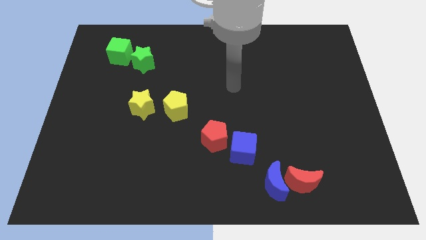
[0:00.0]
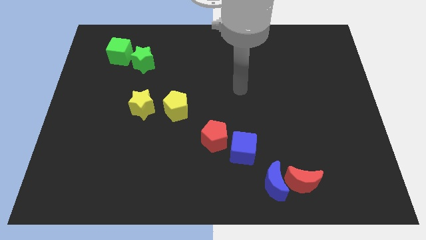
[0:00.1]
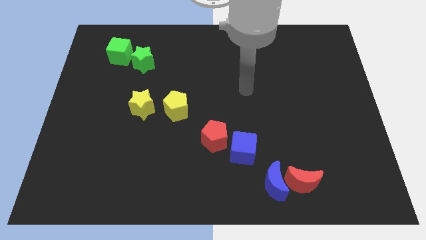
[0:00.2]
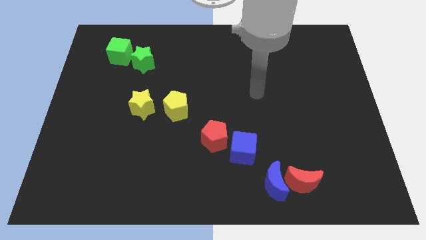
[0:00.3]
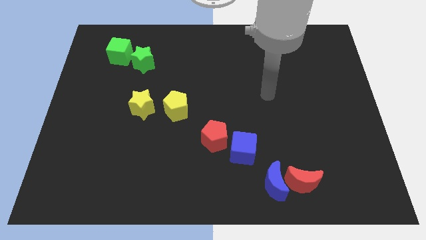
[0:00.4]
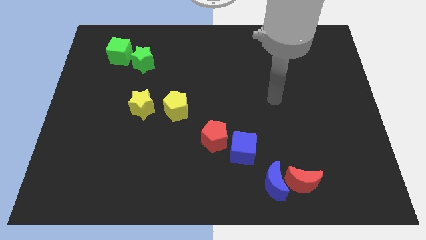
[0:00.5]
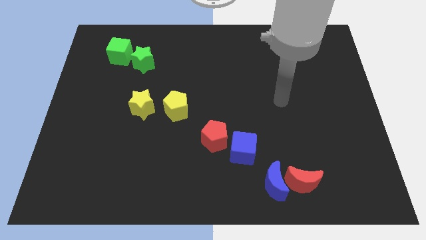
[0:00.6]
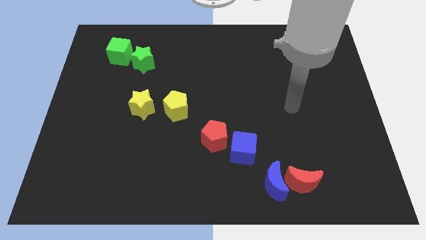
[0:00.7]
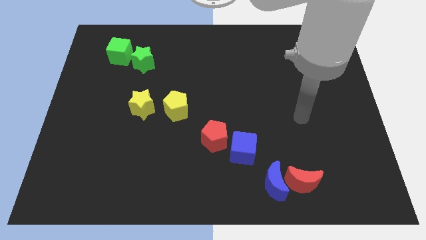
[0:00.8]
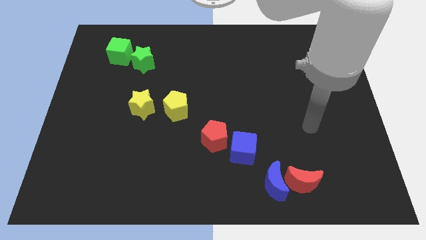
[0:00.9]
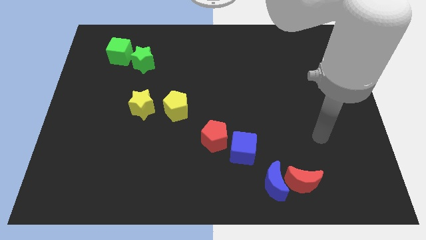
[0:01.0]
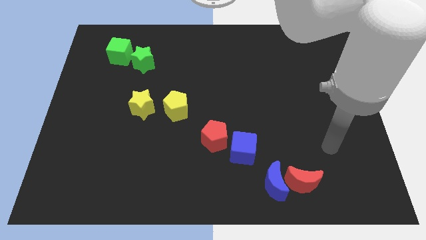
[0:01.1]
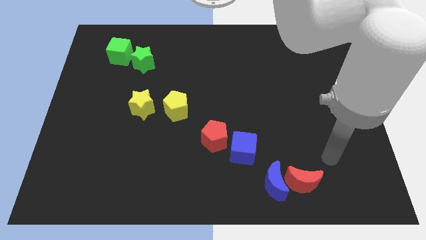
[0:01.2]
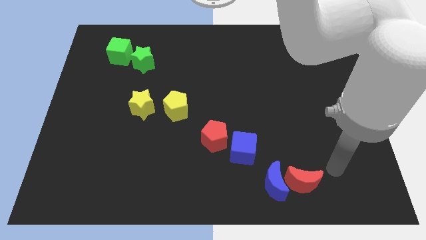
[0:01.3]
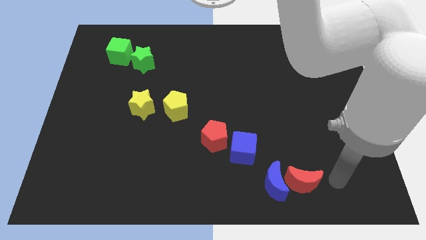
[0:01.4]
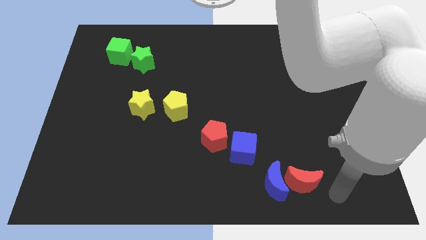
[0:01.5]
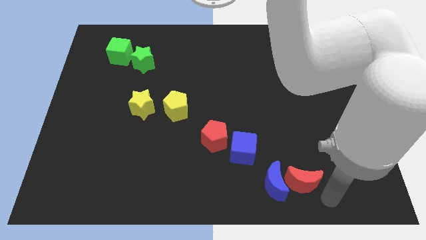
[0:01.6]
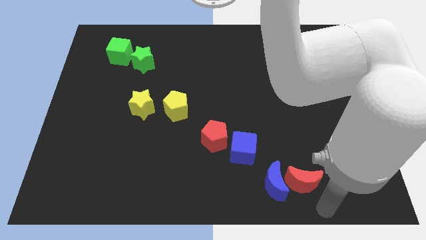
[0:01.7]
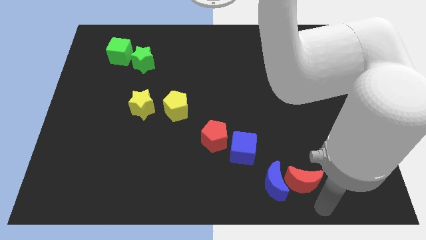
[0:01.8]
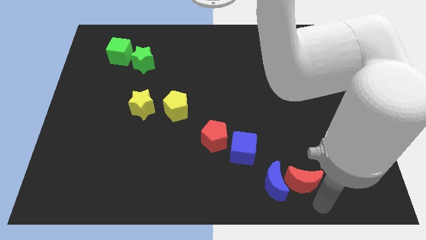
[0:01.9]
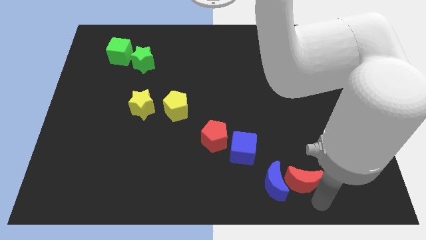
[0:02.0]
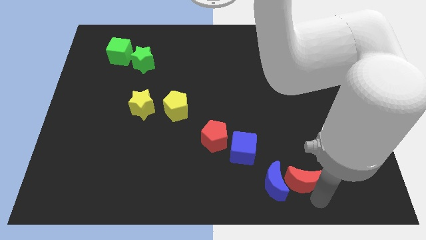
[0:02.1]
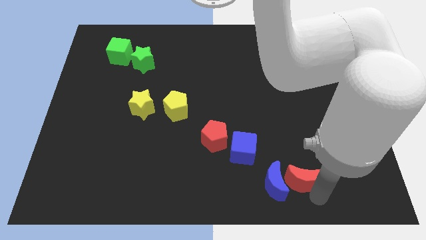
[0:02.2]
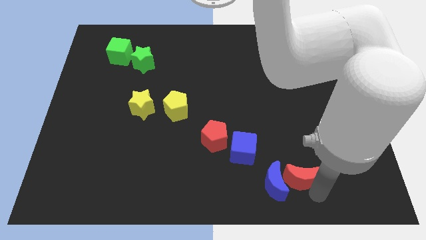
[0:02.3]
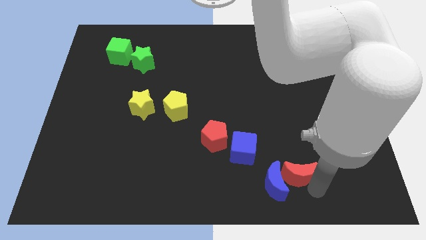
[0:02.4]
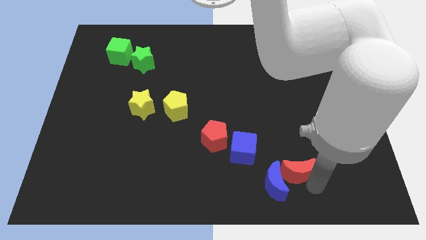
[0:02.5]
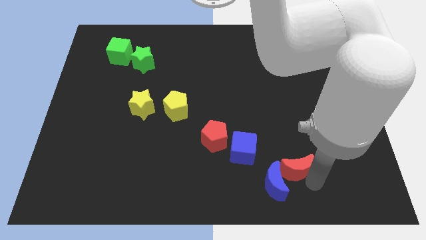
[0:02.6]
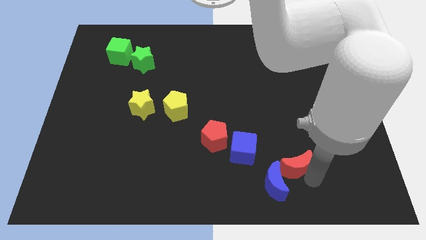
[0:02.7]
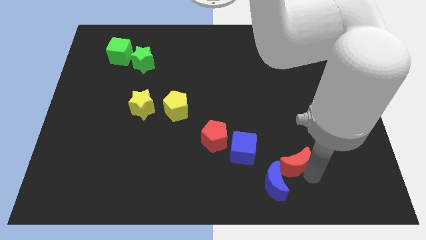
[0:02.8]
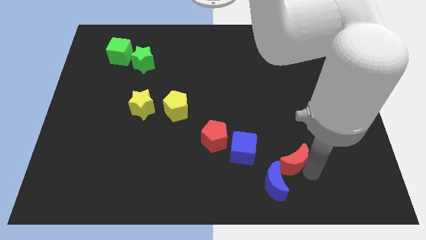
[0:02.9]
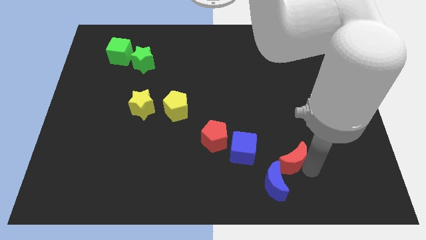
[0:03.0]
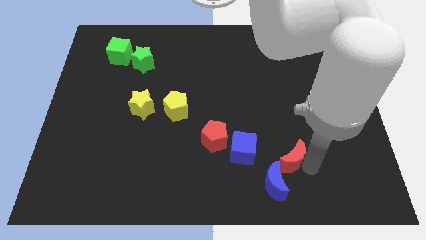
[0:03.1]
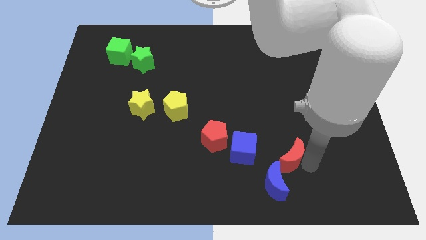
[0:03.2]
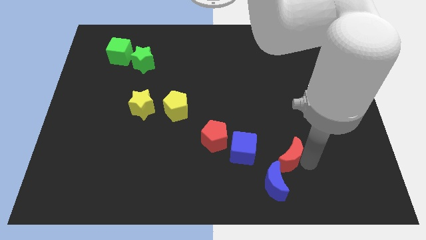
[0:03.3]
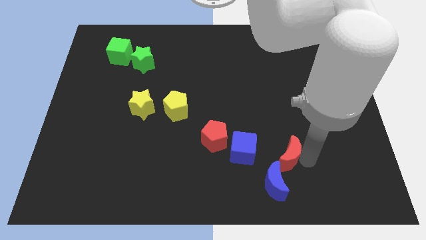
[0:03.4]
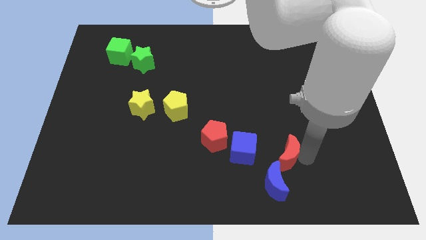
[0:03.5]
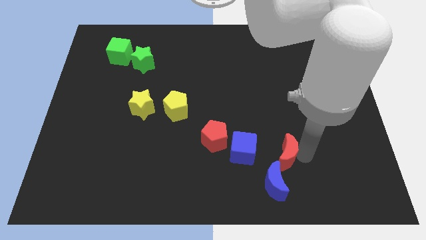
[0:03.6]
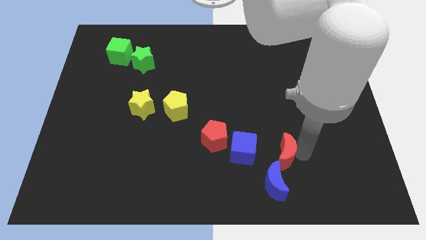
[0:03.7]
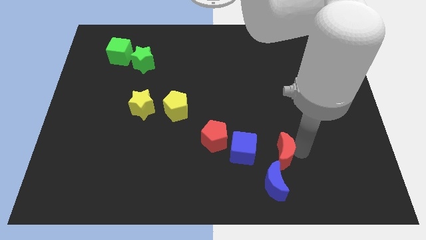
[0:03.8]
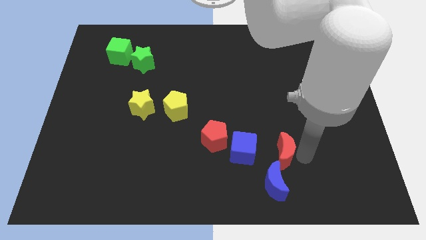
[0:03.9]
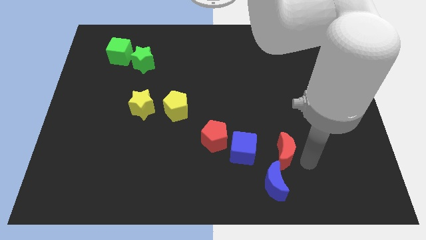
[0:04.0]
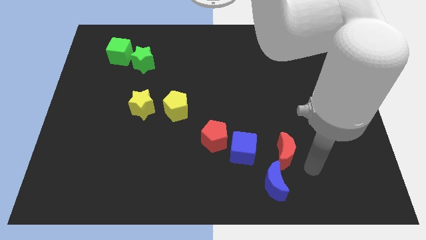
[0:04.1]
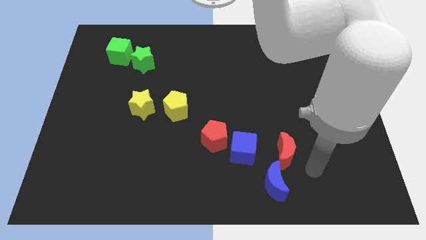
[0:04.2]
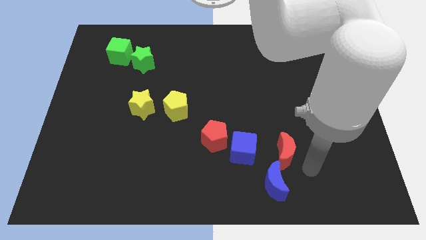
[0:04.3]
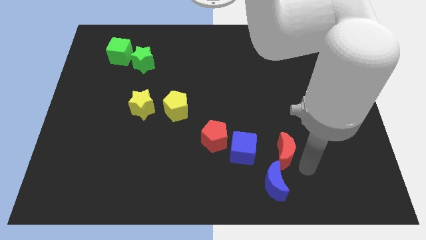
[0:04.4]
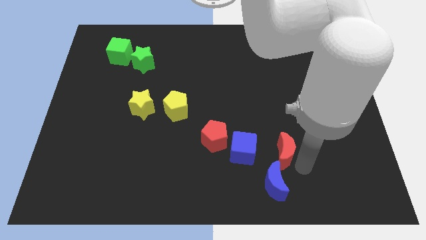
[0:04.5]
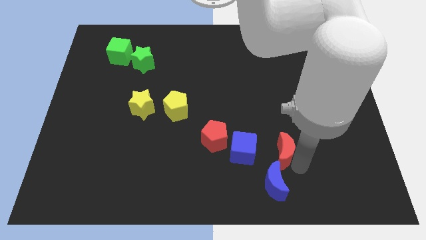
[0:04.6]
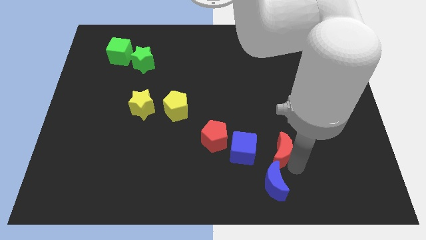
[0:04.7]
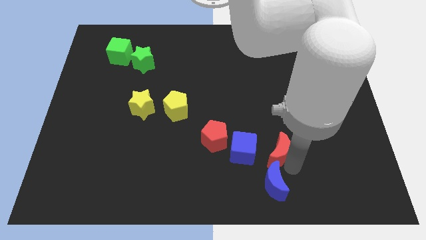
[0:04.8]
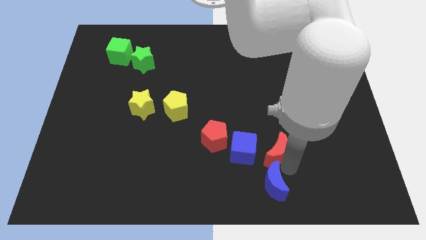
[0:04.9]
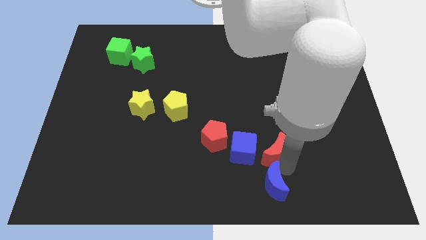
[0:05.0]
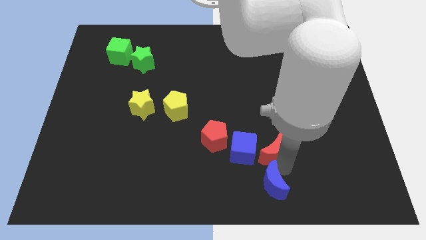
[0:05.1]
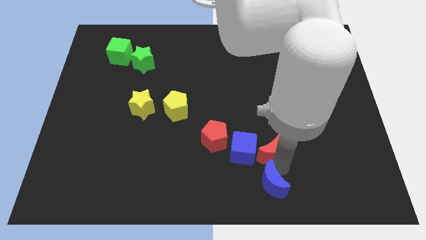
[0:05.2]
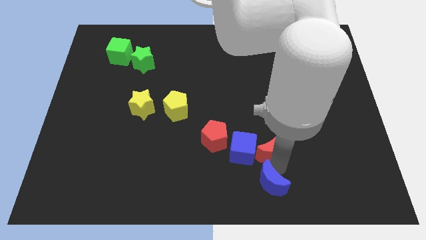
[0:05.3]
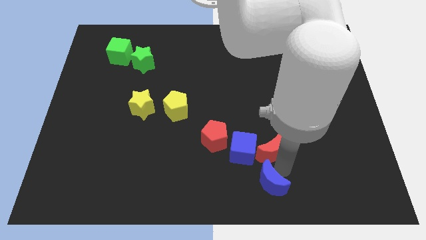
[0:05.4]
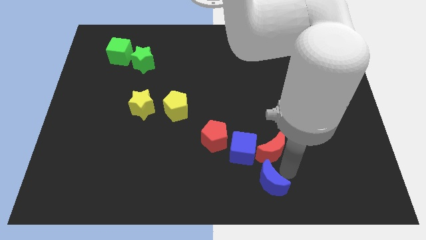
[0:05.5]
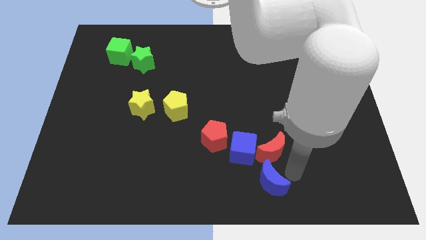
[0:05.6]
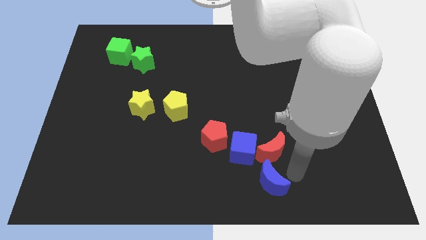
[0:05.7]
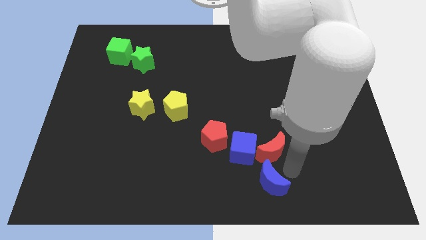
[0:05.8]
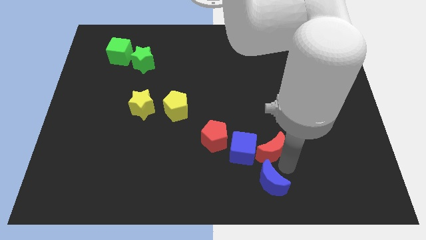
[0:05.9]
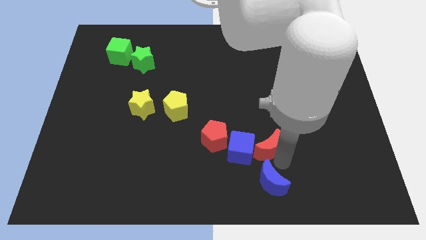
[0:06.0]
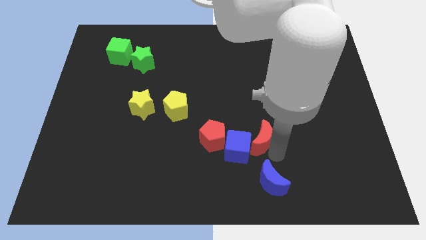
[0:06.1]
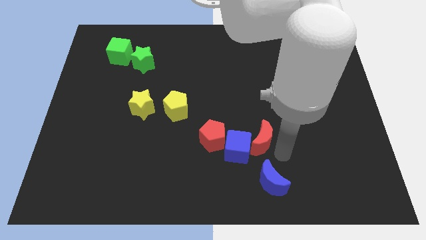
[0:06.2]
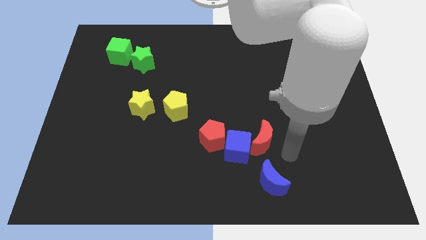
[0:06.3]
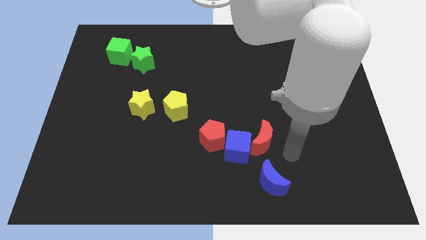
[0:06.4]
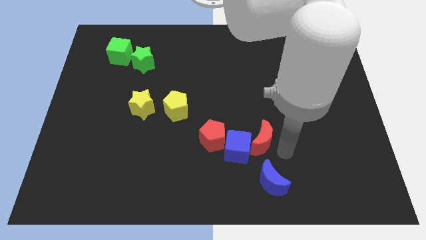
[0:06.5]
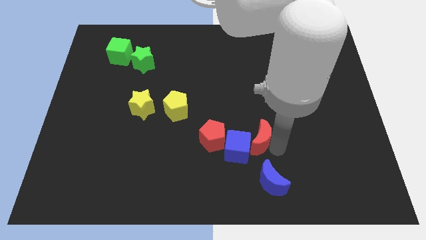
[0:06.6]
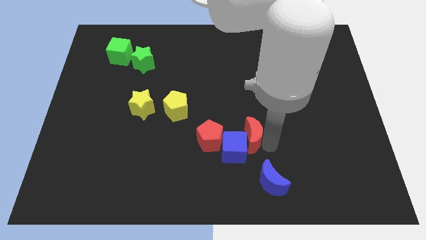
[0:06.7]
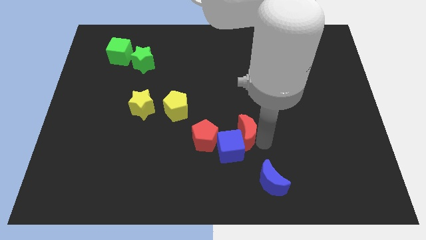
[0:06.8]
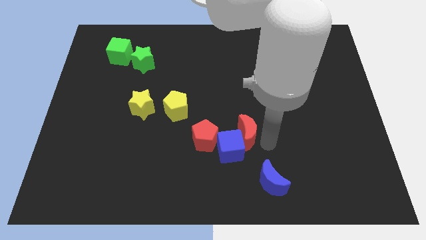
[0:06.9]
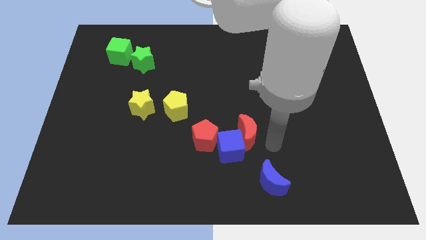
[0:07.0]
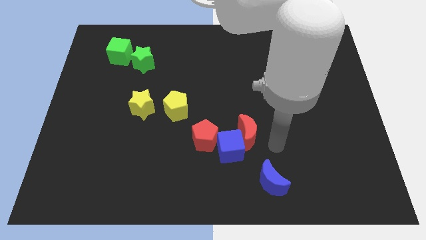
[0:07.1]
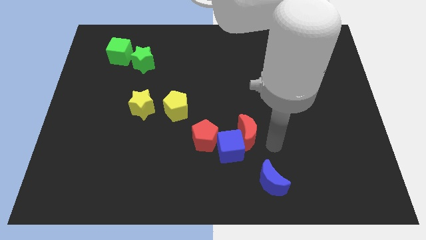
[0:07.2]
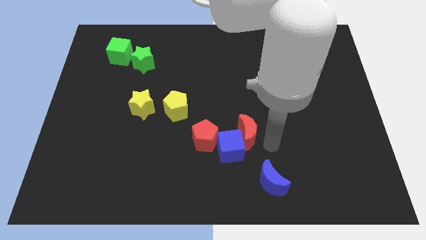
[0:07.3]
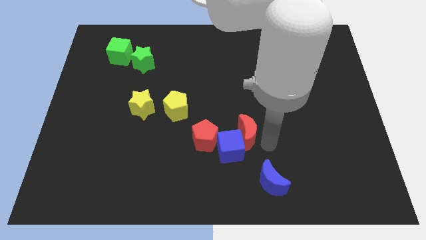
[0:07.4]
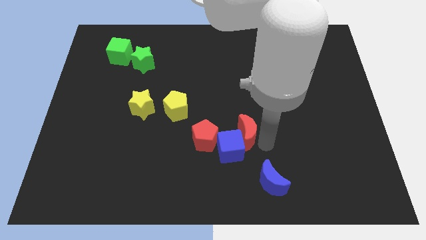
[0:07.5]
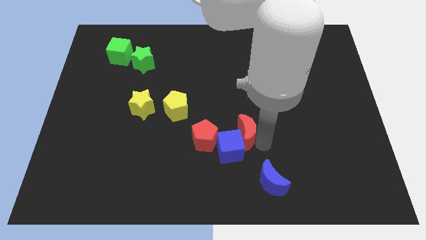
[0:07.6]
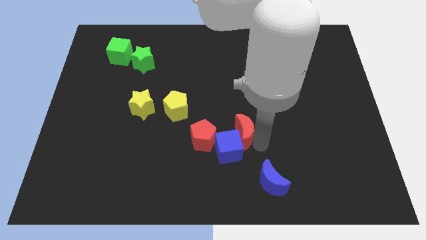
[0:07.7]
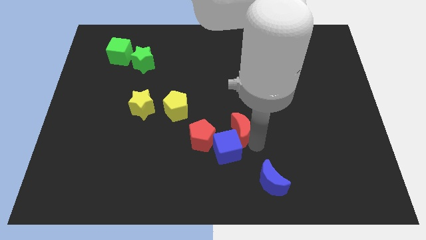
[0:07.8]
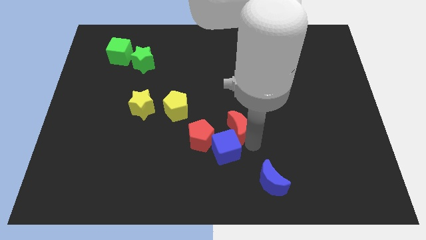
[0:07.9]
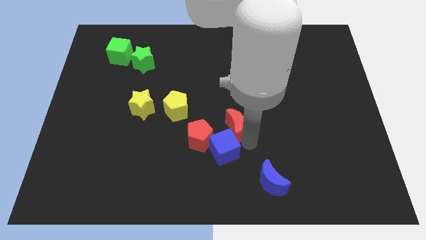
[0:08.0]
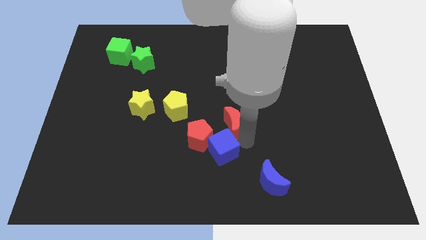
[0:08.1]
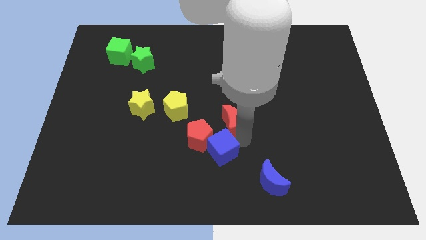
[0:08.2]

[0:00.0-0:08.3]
slide the red moon upwards and then to the left
